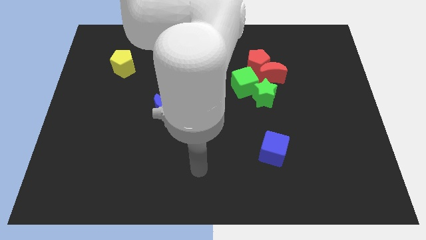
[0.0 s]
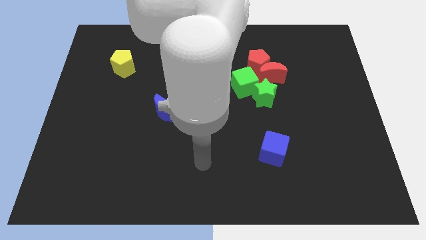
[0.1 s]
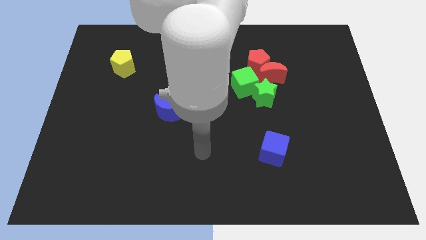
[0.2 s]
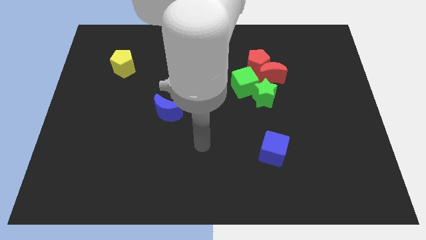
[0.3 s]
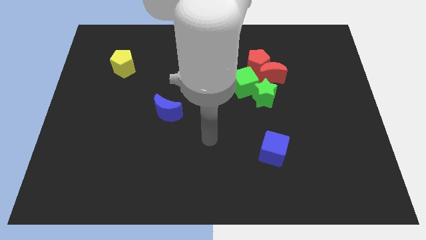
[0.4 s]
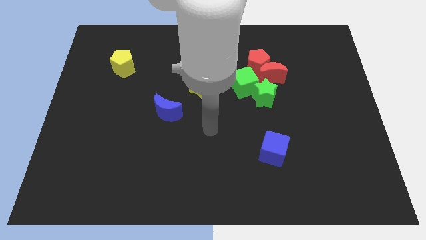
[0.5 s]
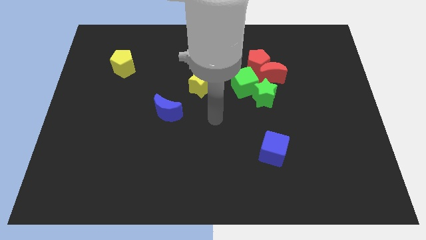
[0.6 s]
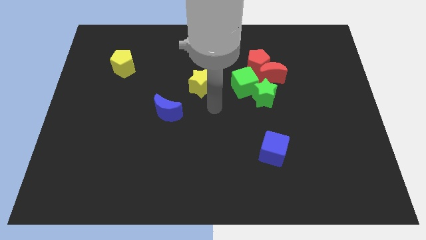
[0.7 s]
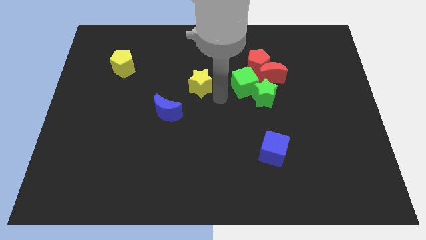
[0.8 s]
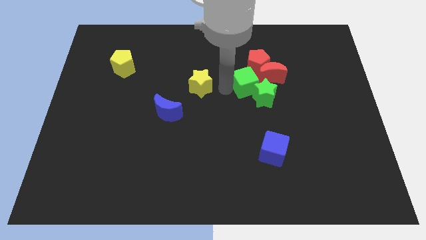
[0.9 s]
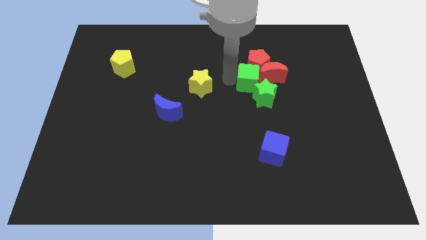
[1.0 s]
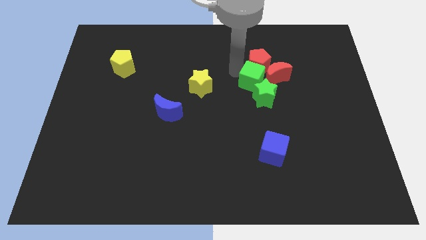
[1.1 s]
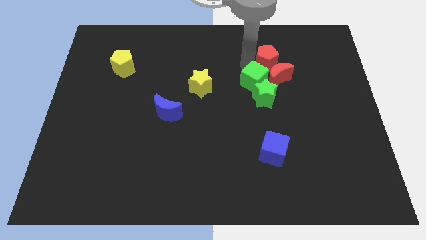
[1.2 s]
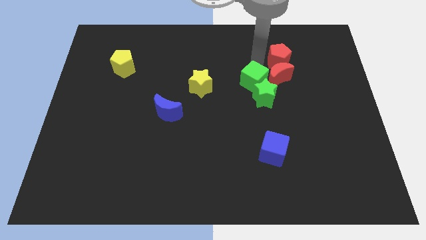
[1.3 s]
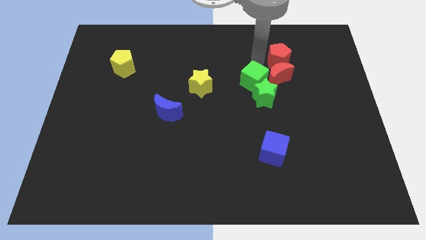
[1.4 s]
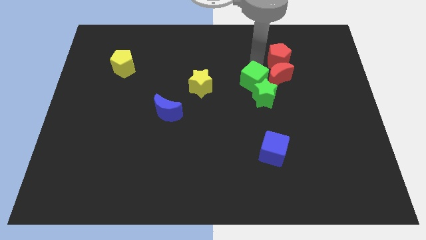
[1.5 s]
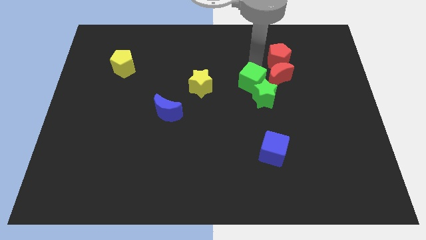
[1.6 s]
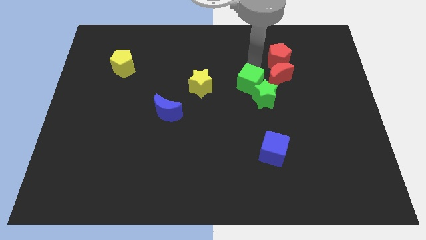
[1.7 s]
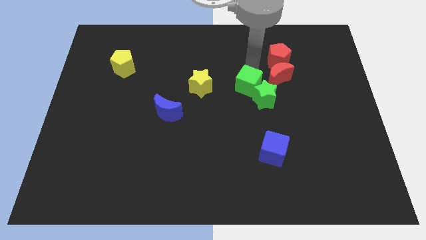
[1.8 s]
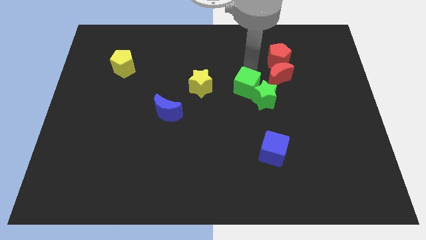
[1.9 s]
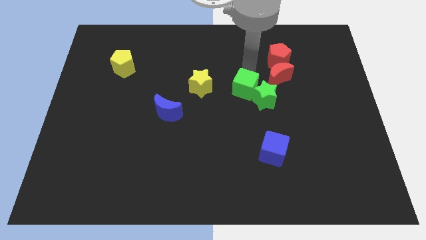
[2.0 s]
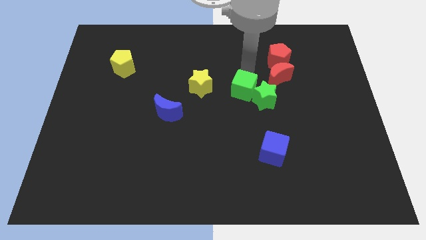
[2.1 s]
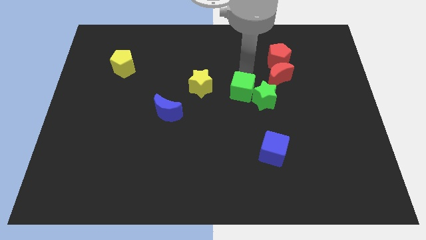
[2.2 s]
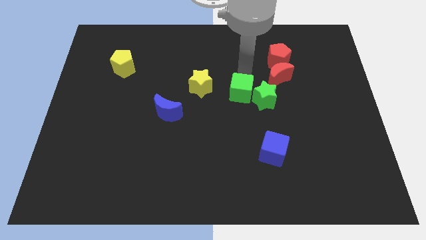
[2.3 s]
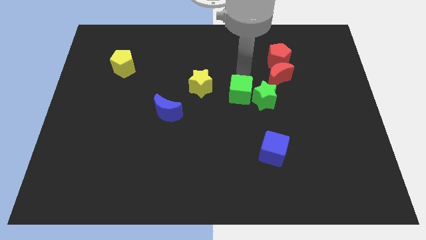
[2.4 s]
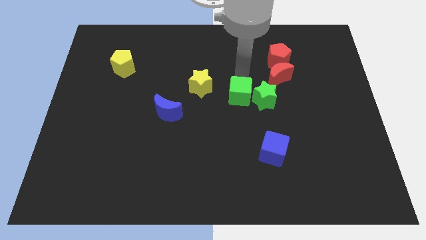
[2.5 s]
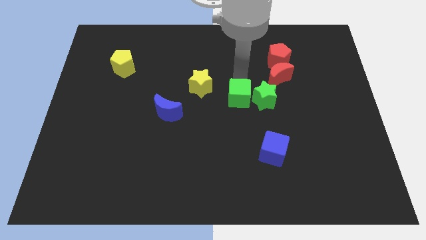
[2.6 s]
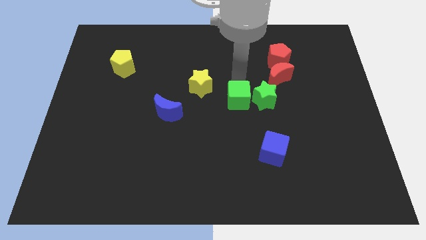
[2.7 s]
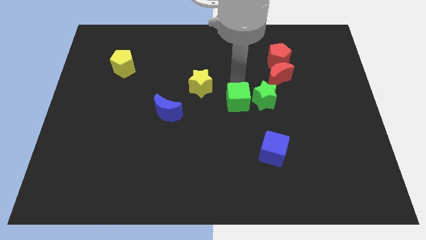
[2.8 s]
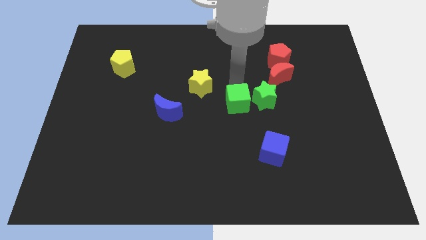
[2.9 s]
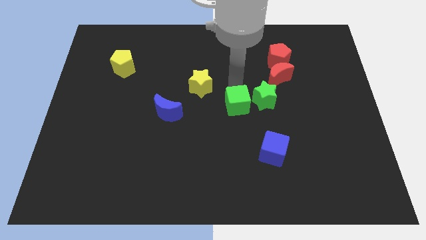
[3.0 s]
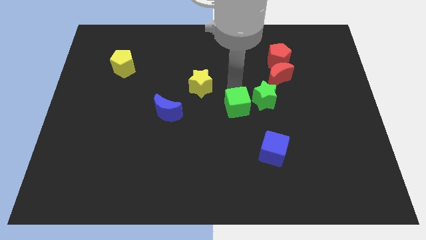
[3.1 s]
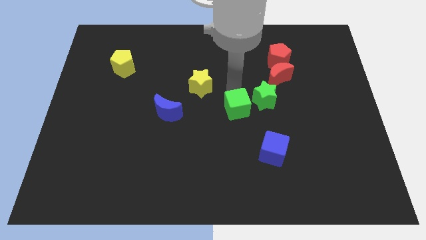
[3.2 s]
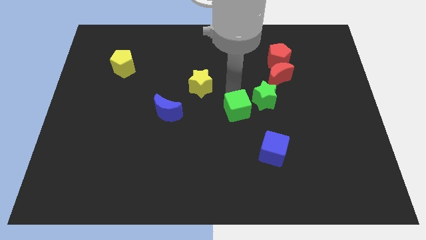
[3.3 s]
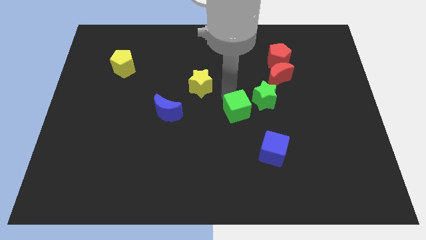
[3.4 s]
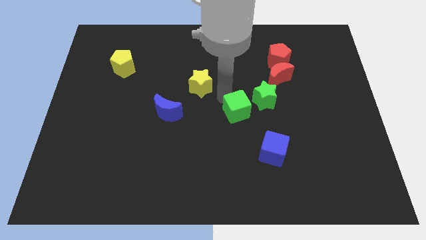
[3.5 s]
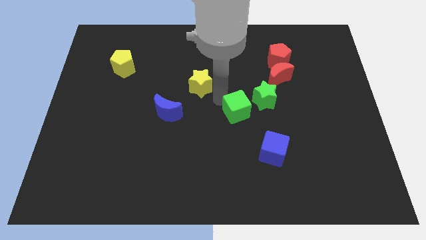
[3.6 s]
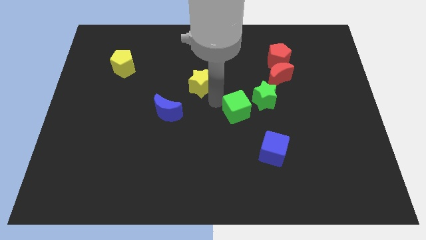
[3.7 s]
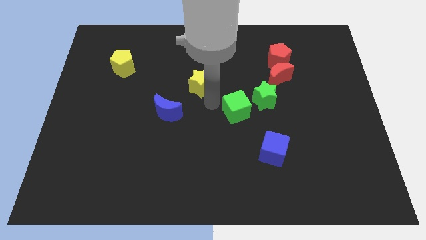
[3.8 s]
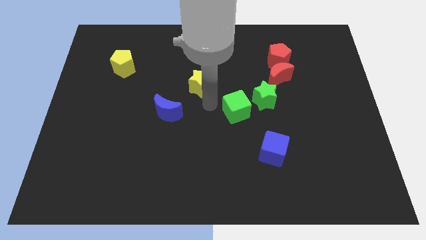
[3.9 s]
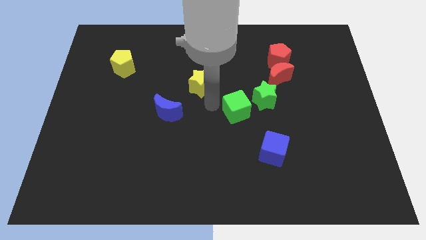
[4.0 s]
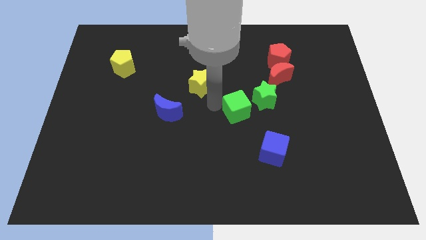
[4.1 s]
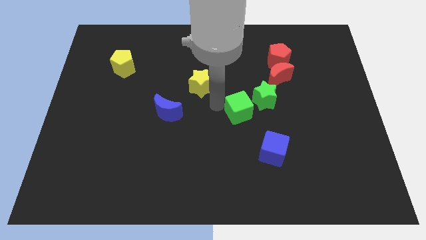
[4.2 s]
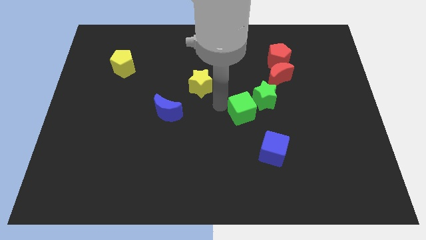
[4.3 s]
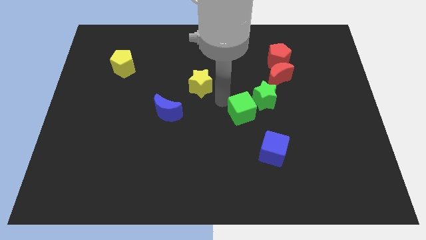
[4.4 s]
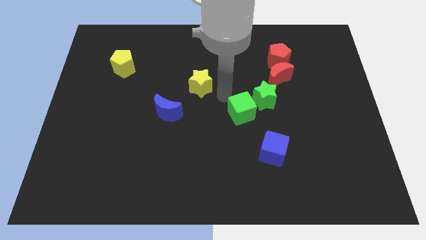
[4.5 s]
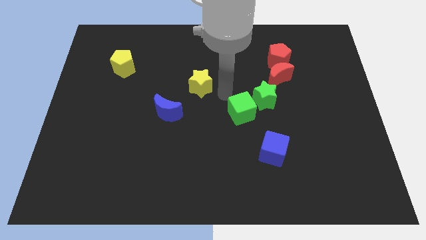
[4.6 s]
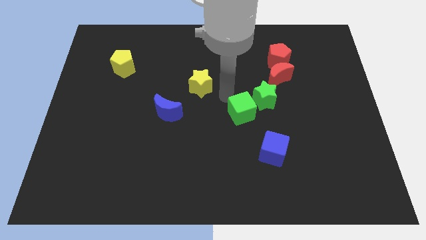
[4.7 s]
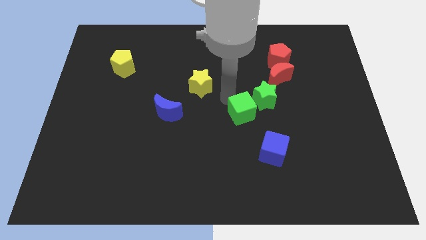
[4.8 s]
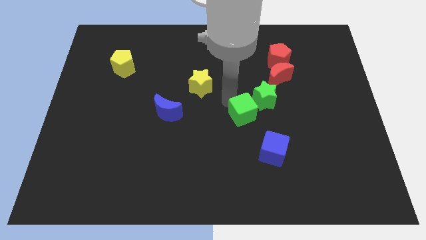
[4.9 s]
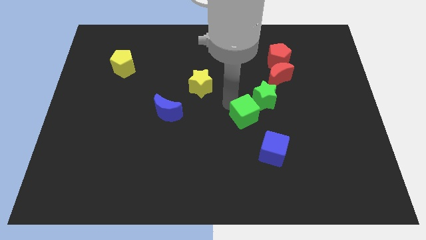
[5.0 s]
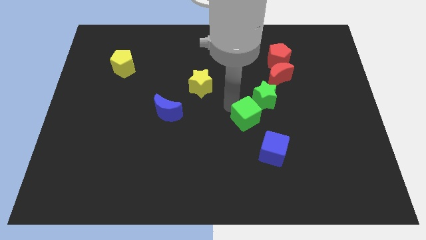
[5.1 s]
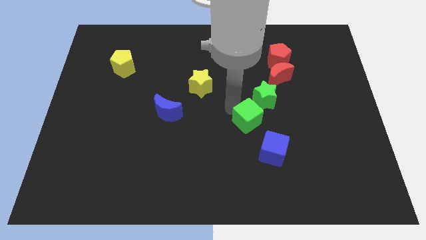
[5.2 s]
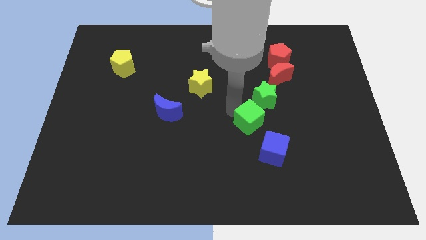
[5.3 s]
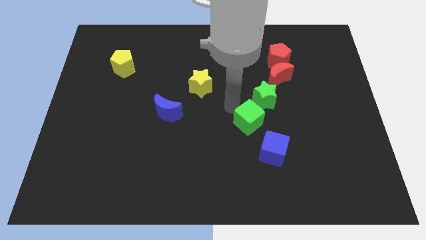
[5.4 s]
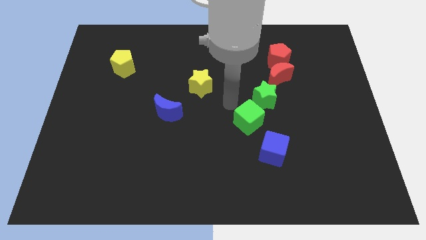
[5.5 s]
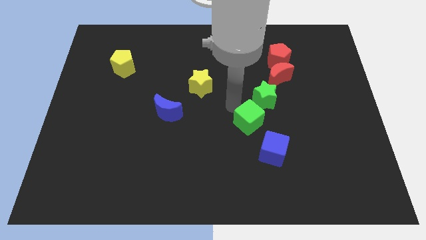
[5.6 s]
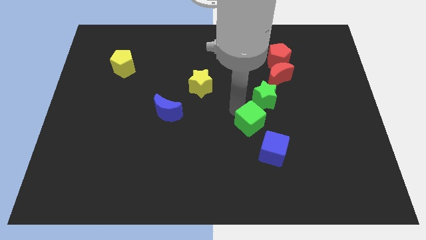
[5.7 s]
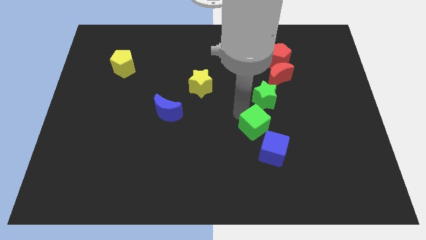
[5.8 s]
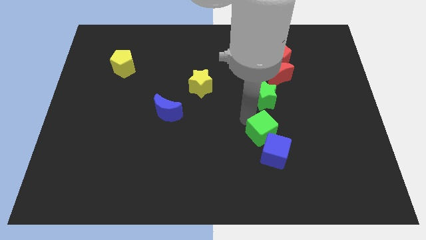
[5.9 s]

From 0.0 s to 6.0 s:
push the green cube towards the blue cube

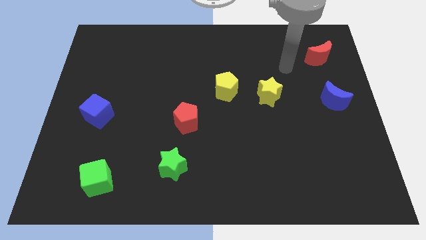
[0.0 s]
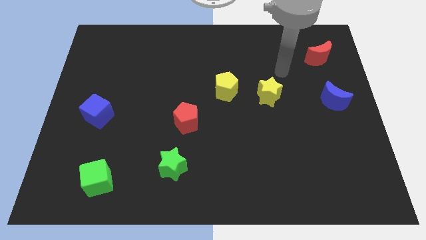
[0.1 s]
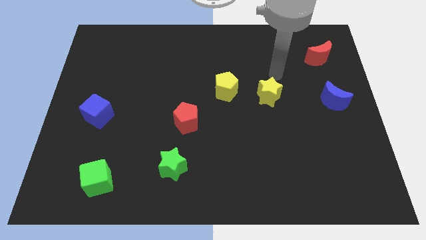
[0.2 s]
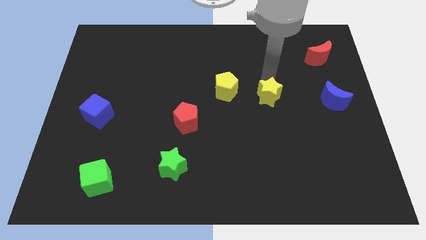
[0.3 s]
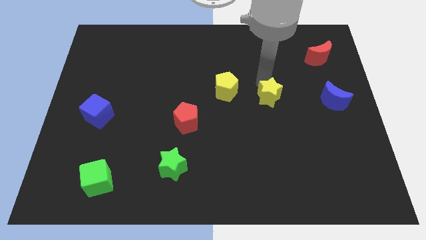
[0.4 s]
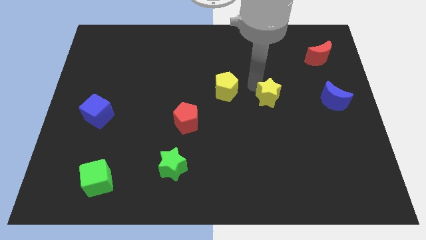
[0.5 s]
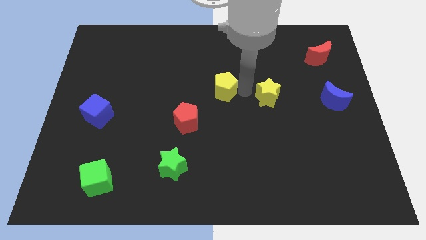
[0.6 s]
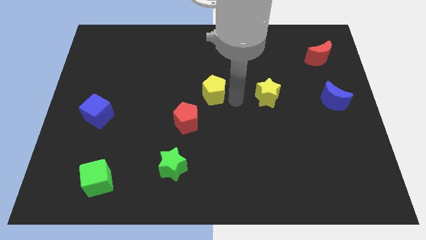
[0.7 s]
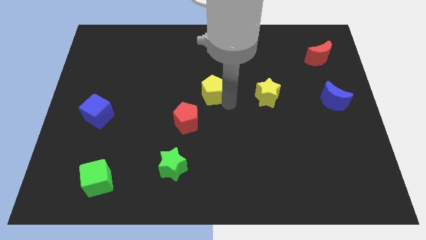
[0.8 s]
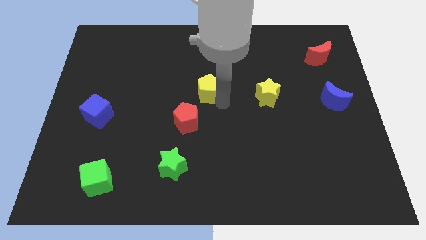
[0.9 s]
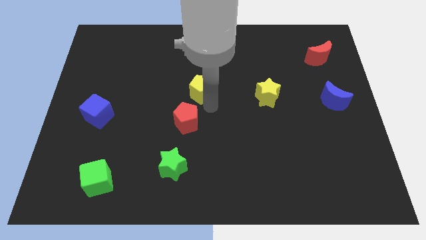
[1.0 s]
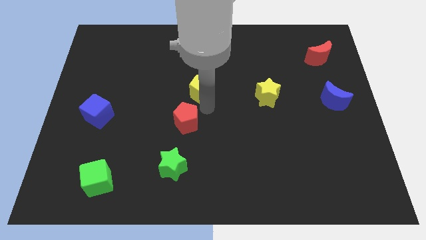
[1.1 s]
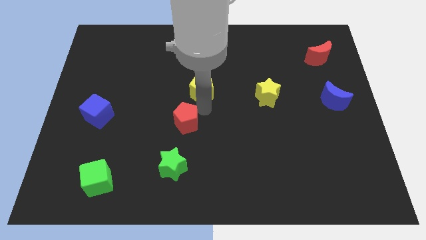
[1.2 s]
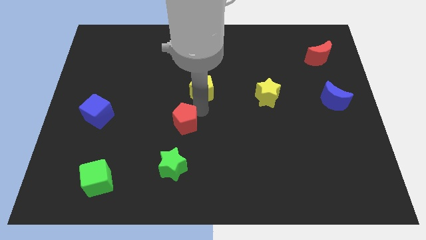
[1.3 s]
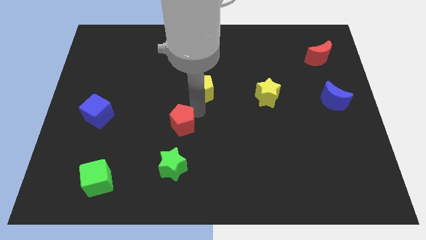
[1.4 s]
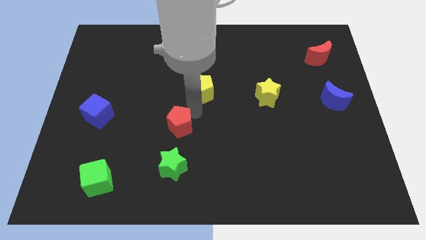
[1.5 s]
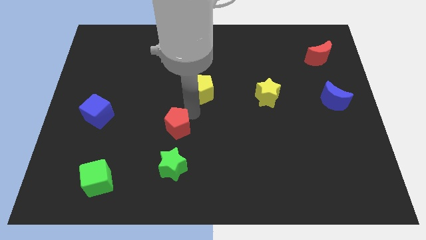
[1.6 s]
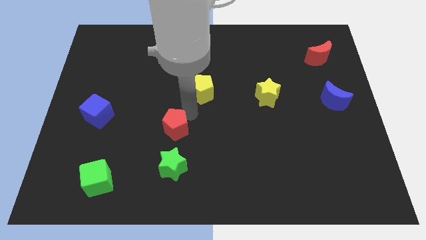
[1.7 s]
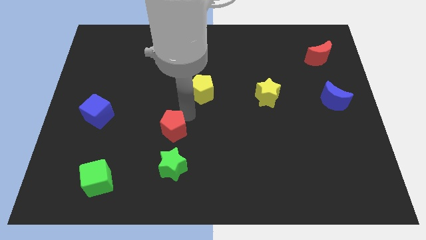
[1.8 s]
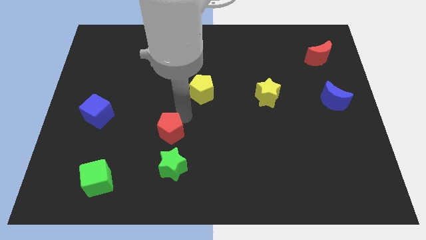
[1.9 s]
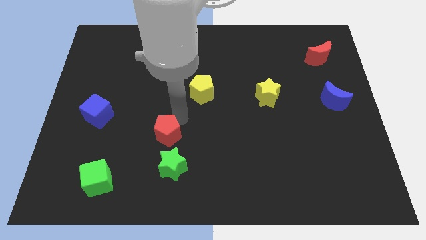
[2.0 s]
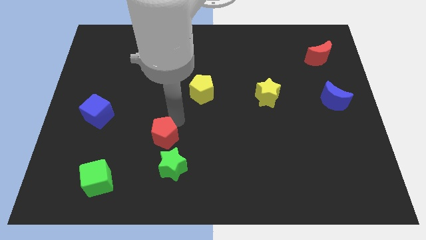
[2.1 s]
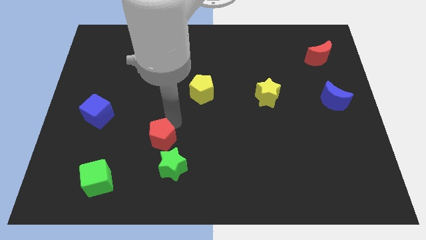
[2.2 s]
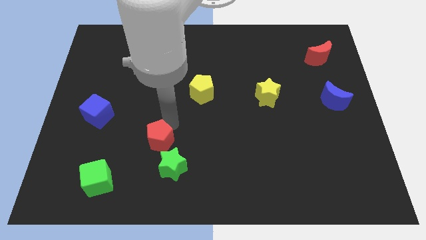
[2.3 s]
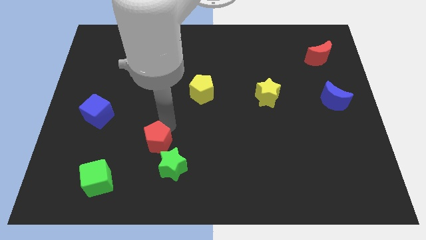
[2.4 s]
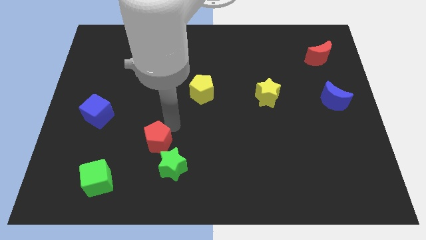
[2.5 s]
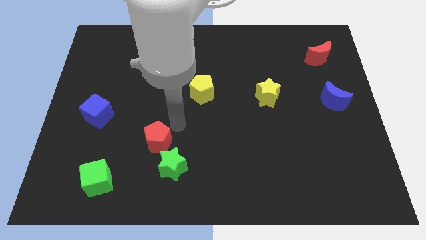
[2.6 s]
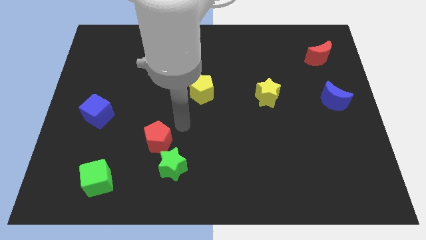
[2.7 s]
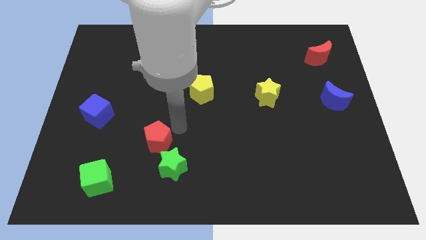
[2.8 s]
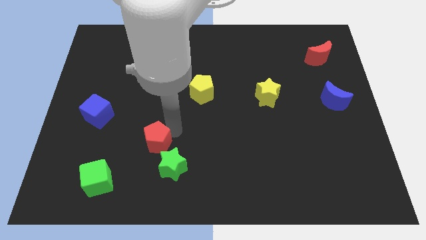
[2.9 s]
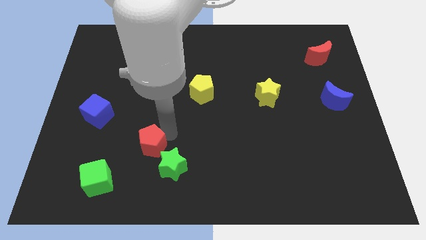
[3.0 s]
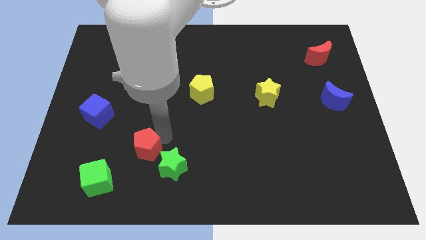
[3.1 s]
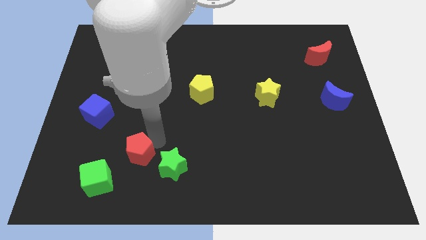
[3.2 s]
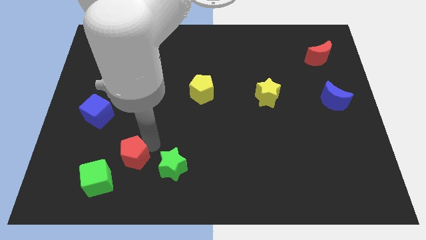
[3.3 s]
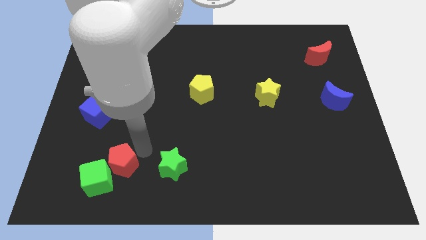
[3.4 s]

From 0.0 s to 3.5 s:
push the red pentagon to the green cube
